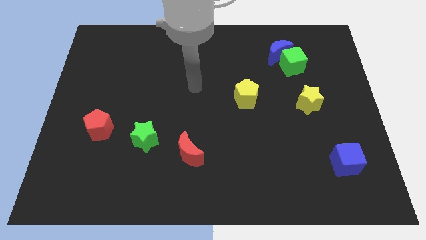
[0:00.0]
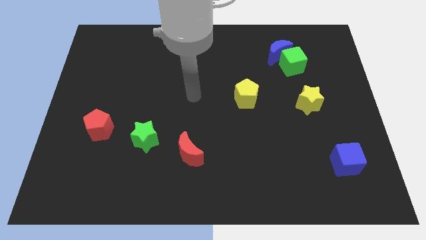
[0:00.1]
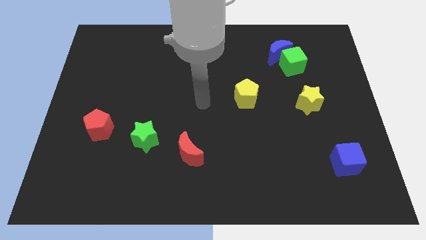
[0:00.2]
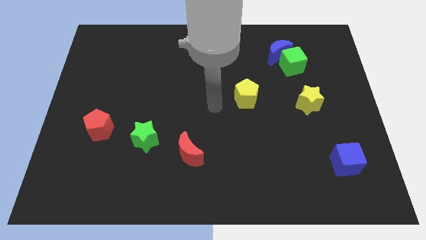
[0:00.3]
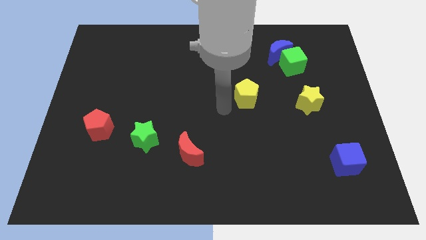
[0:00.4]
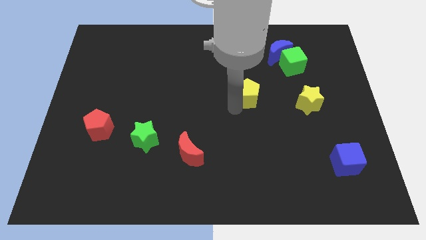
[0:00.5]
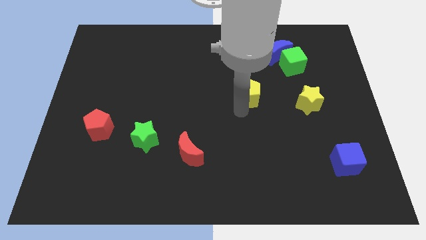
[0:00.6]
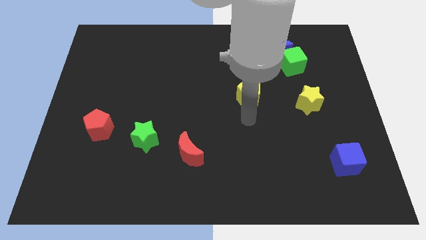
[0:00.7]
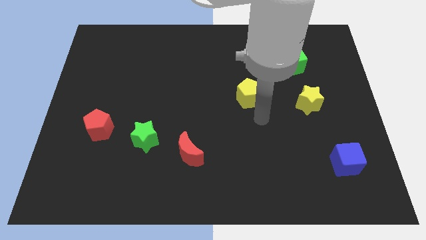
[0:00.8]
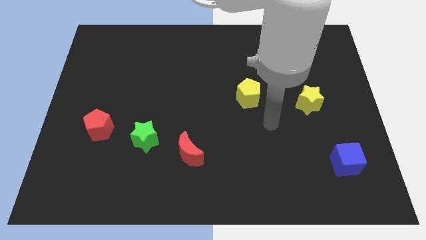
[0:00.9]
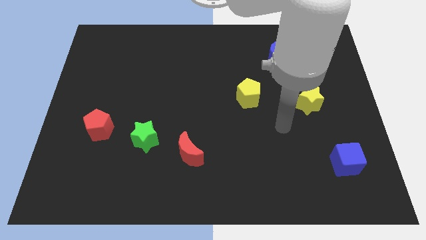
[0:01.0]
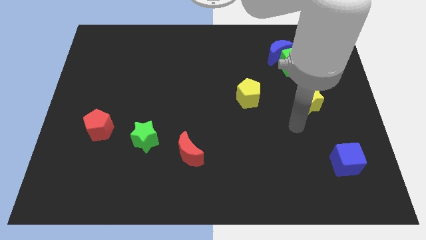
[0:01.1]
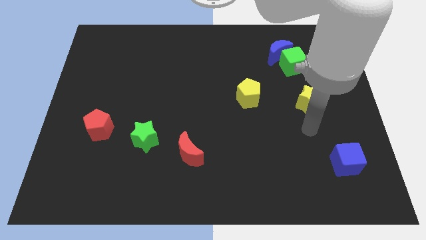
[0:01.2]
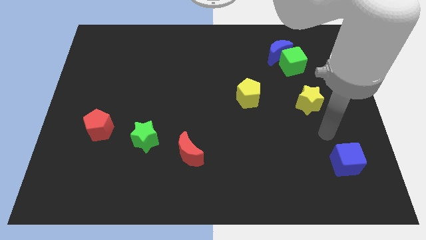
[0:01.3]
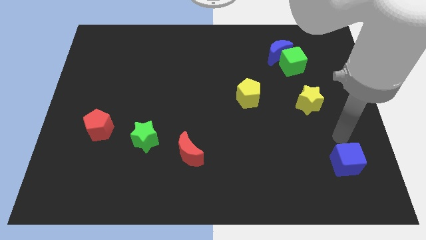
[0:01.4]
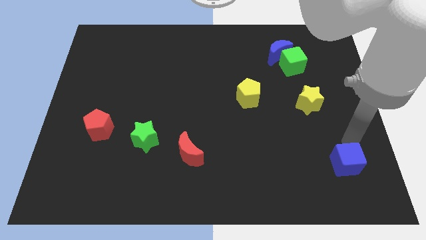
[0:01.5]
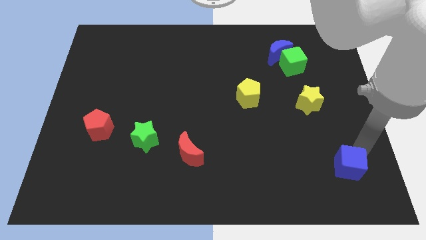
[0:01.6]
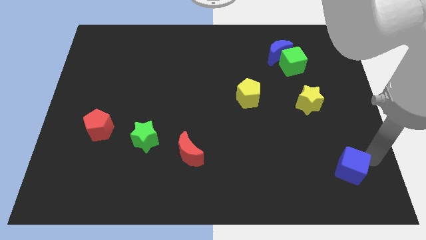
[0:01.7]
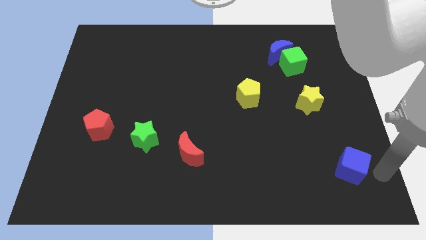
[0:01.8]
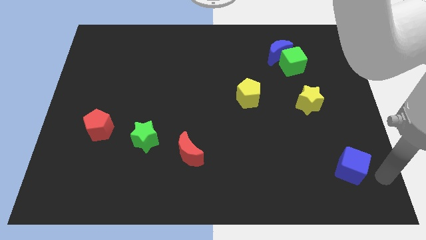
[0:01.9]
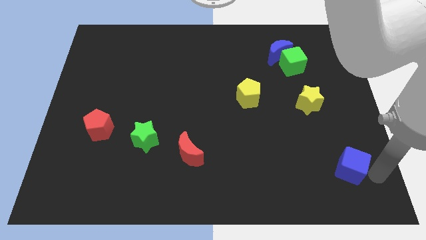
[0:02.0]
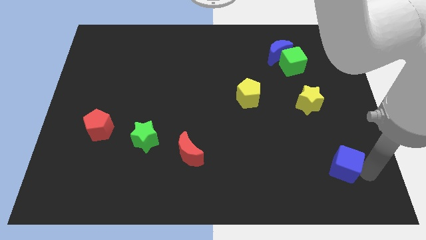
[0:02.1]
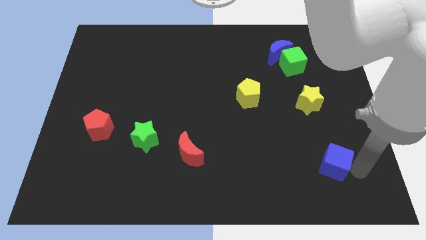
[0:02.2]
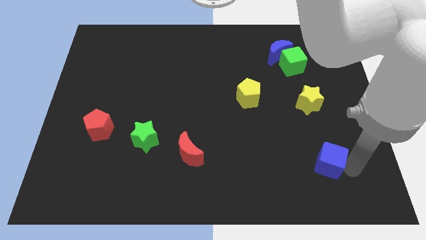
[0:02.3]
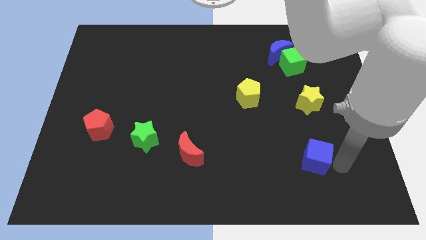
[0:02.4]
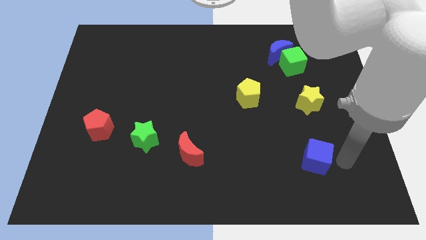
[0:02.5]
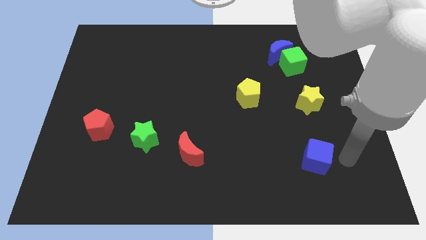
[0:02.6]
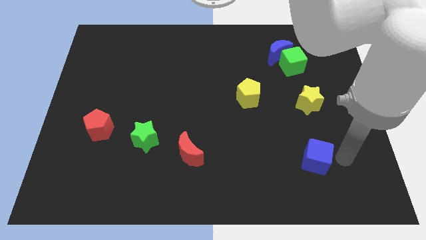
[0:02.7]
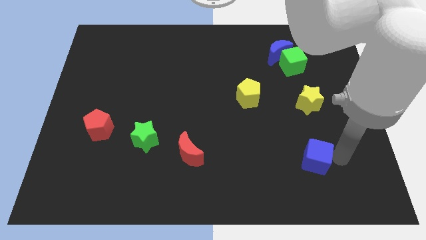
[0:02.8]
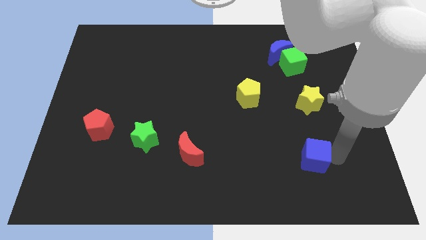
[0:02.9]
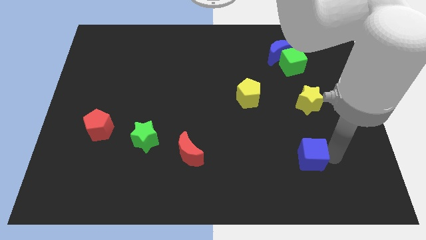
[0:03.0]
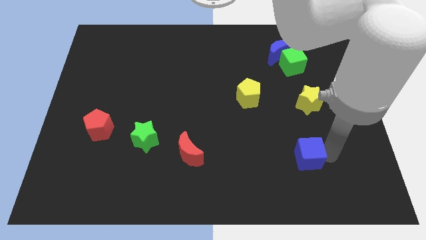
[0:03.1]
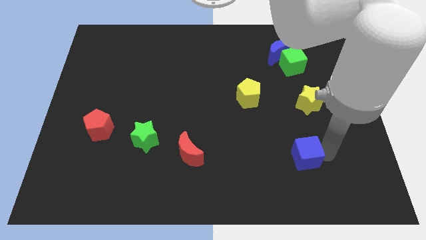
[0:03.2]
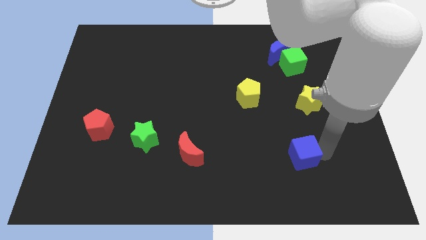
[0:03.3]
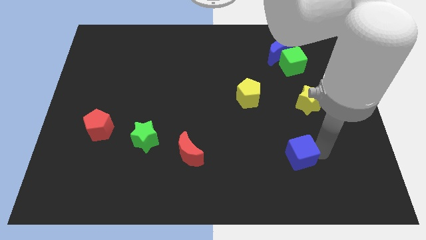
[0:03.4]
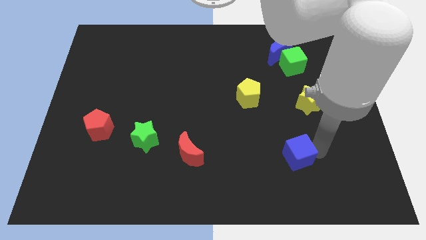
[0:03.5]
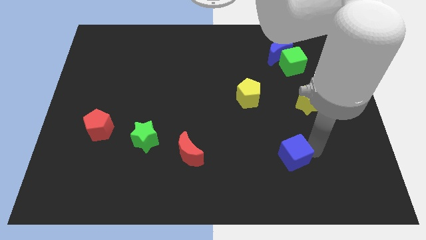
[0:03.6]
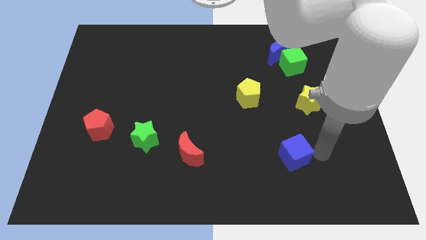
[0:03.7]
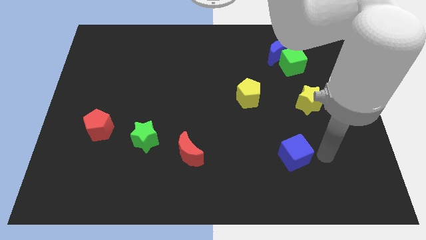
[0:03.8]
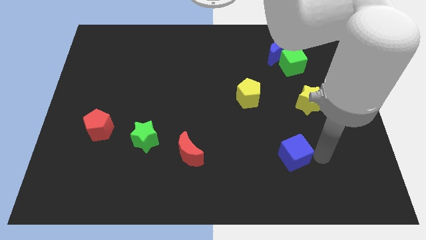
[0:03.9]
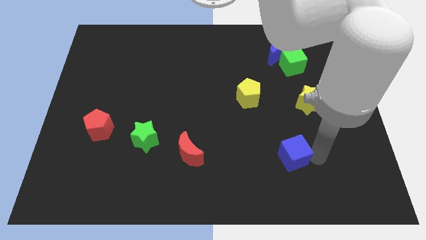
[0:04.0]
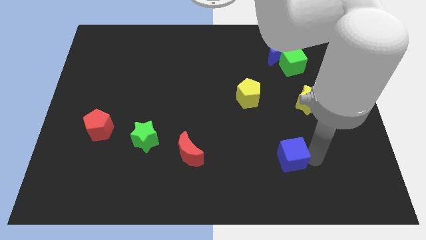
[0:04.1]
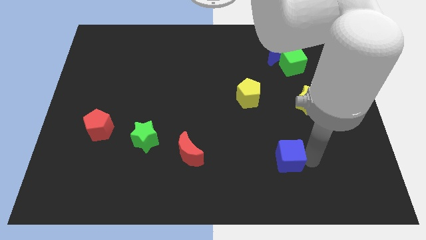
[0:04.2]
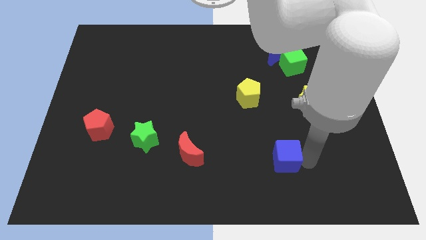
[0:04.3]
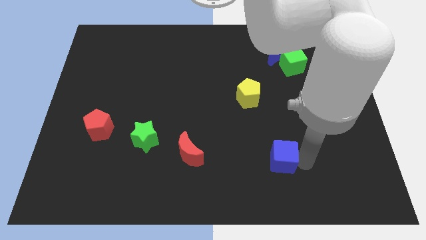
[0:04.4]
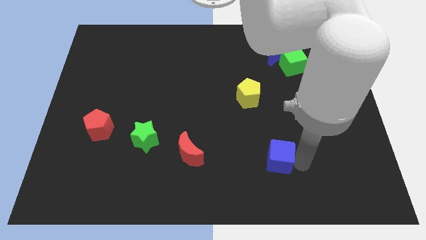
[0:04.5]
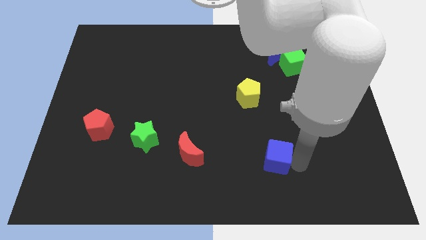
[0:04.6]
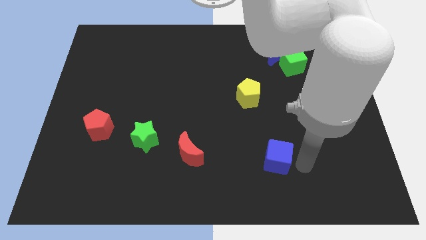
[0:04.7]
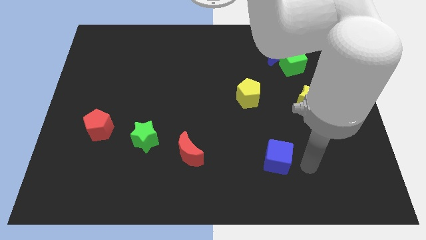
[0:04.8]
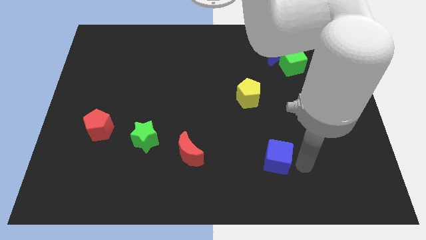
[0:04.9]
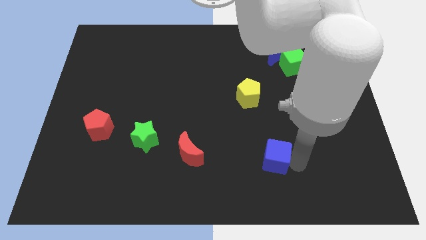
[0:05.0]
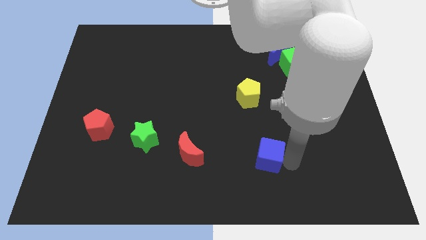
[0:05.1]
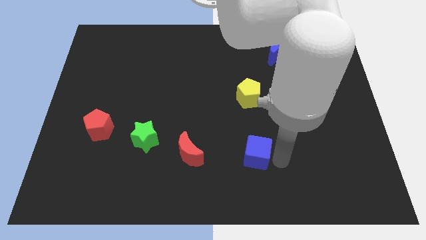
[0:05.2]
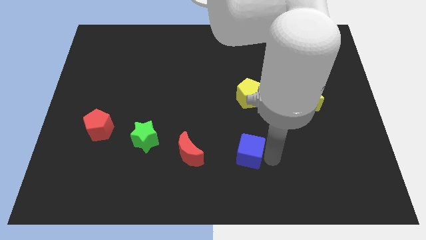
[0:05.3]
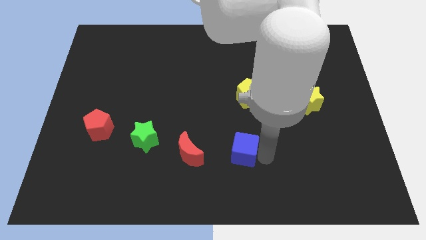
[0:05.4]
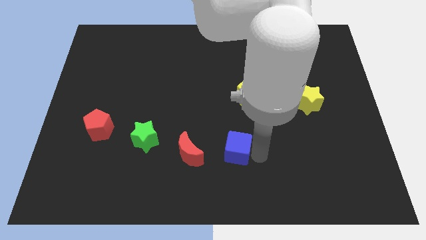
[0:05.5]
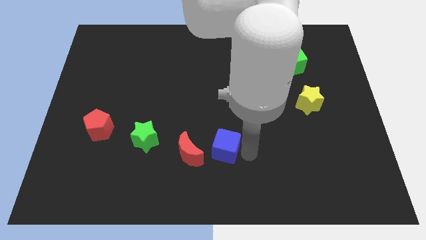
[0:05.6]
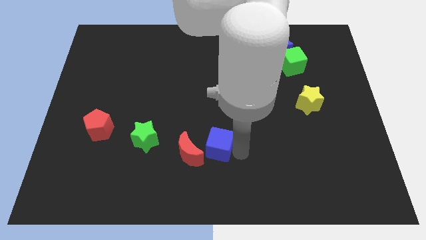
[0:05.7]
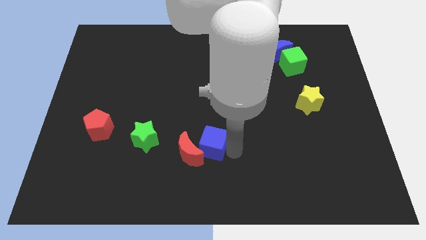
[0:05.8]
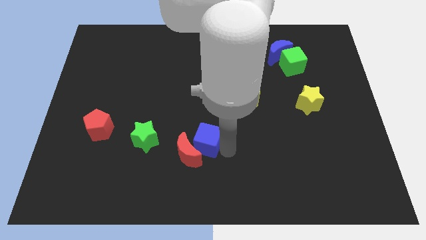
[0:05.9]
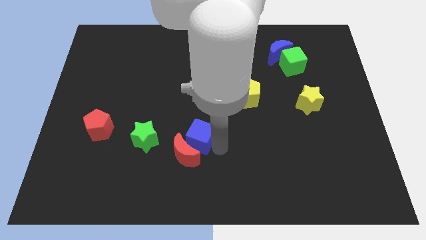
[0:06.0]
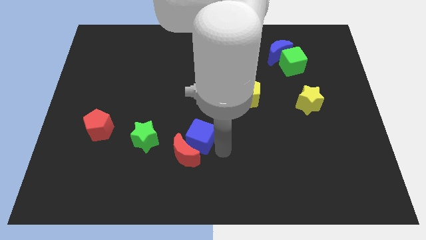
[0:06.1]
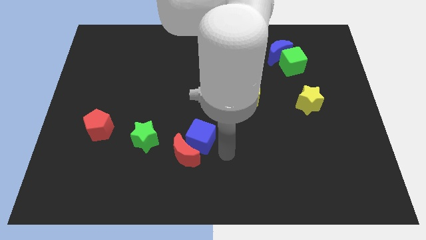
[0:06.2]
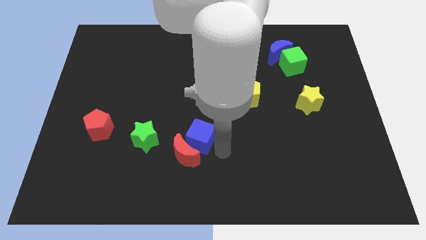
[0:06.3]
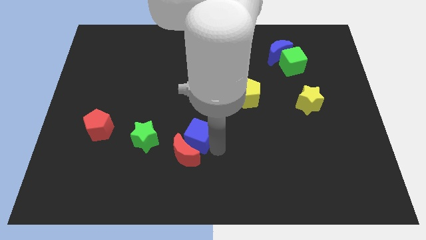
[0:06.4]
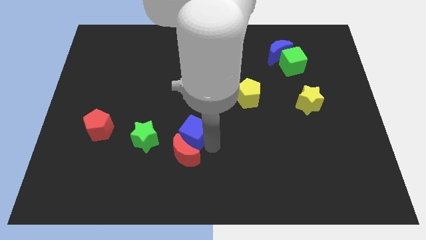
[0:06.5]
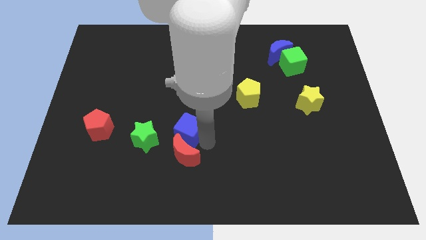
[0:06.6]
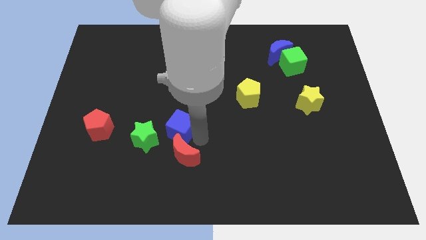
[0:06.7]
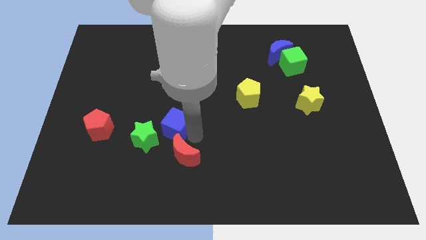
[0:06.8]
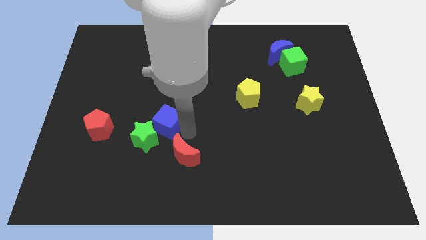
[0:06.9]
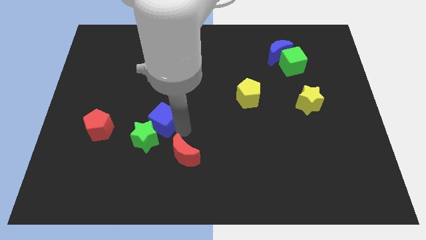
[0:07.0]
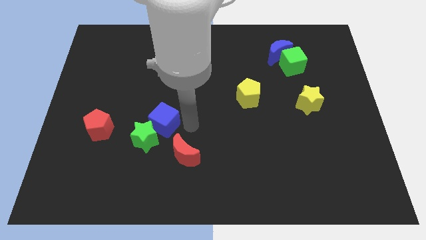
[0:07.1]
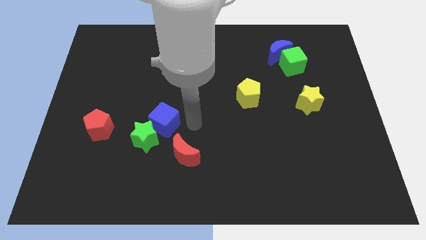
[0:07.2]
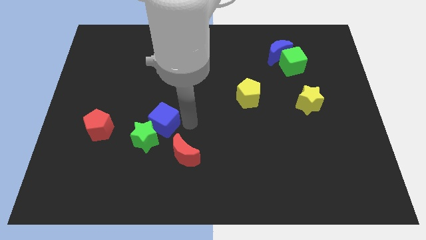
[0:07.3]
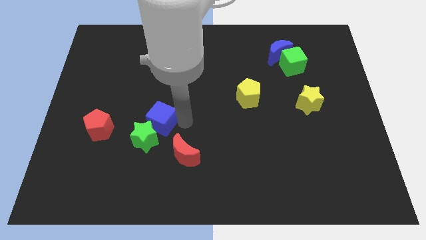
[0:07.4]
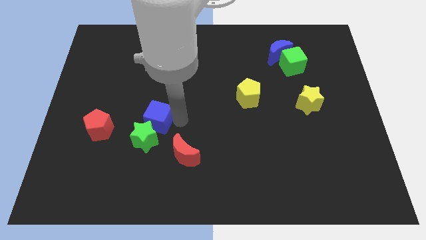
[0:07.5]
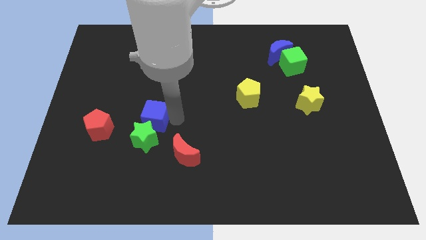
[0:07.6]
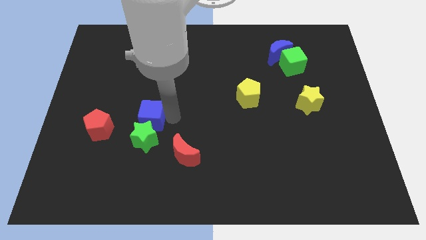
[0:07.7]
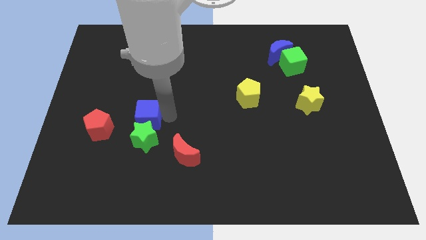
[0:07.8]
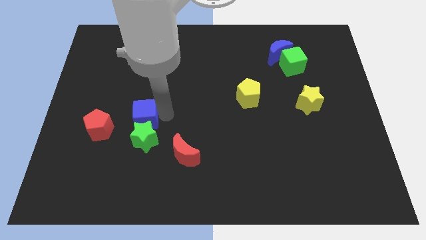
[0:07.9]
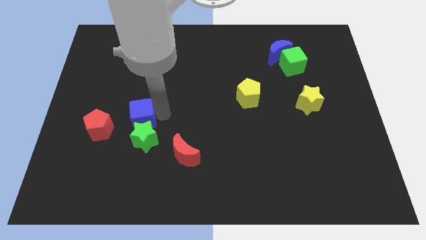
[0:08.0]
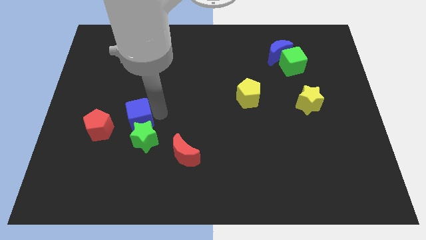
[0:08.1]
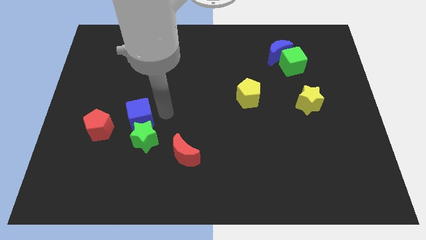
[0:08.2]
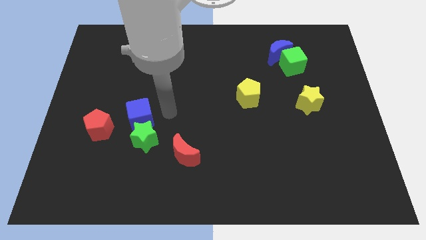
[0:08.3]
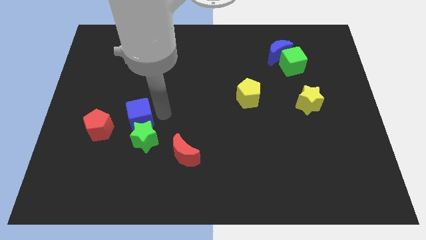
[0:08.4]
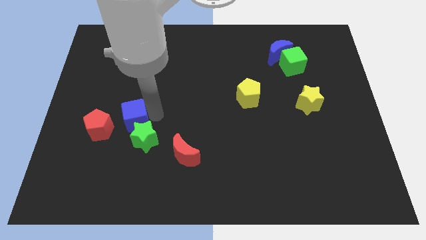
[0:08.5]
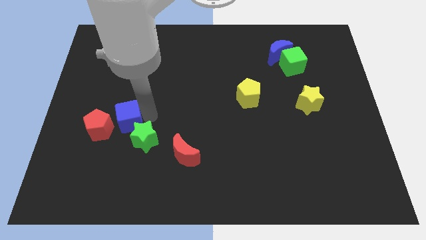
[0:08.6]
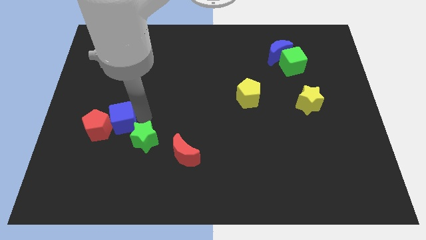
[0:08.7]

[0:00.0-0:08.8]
slide the blue cube towards the red pentagon
